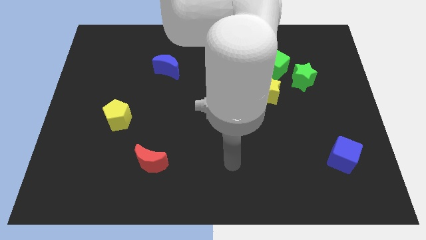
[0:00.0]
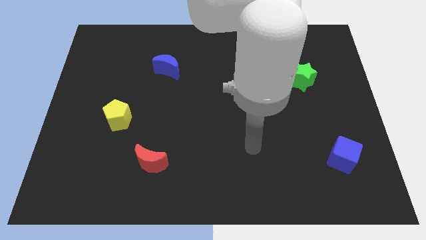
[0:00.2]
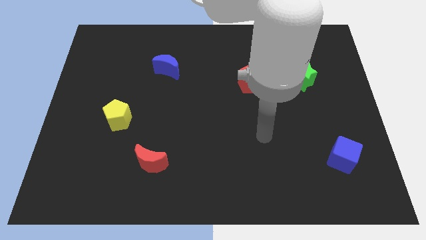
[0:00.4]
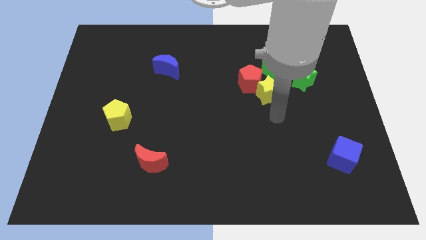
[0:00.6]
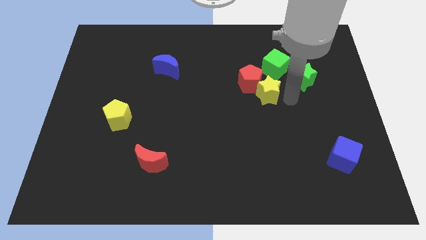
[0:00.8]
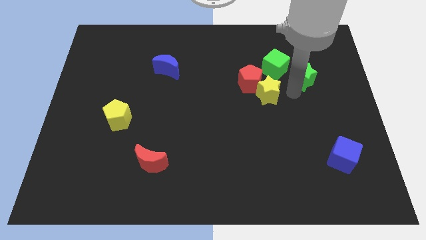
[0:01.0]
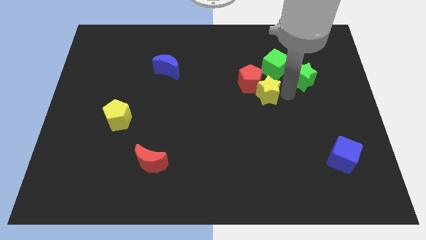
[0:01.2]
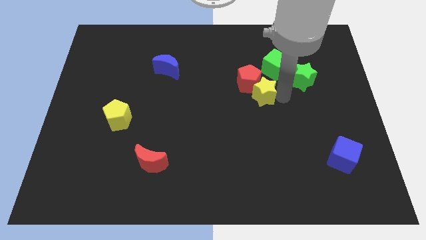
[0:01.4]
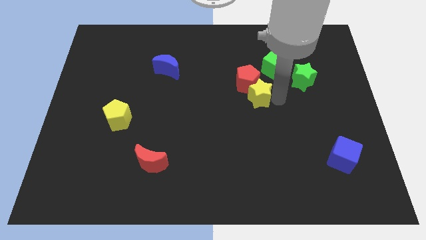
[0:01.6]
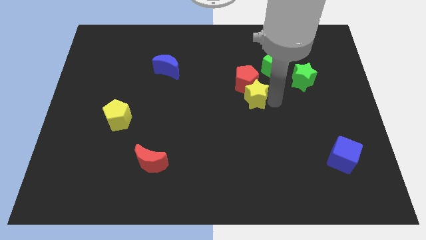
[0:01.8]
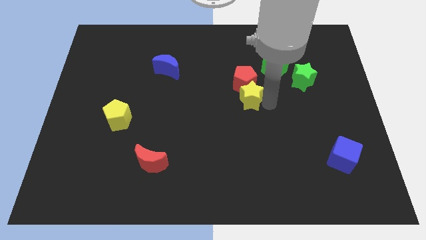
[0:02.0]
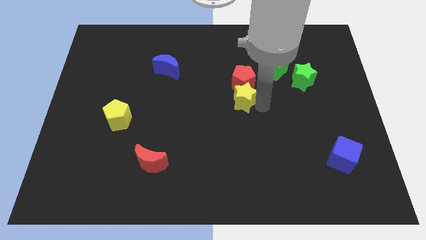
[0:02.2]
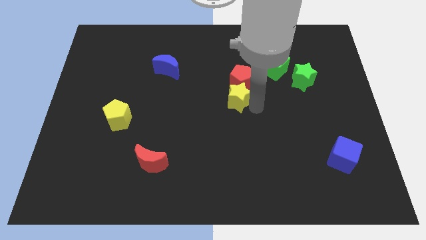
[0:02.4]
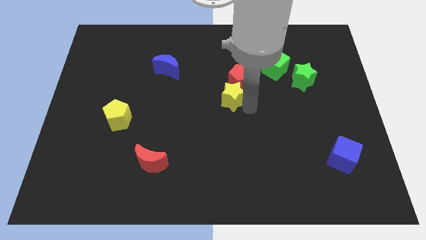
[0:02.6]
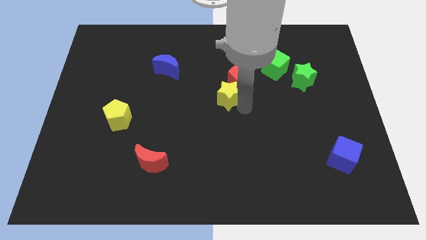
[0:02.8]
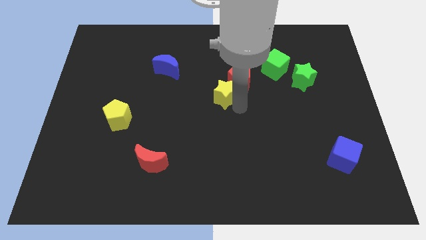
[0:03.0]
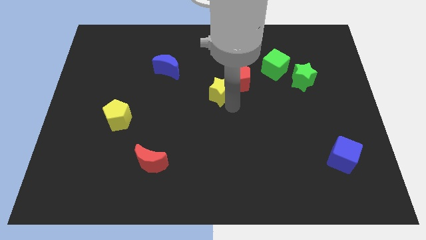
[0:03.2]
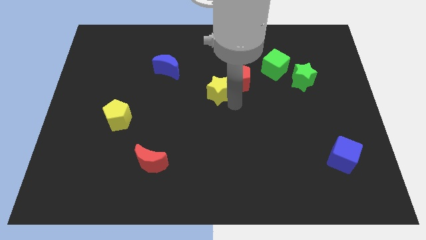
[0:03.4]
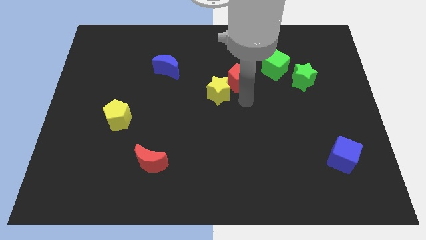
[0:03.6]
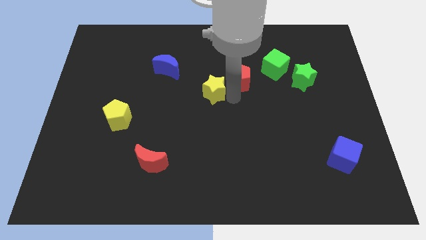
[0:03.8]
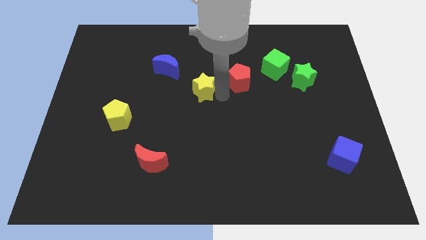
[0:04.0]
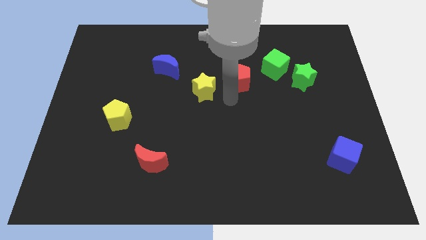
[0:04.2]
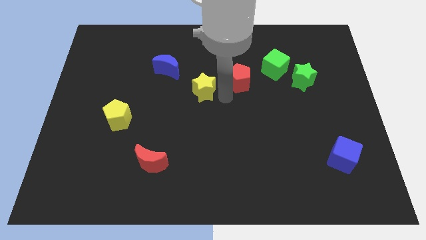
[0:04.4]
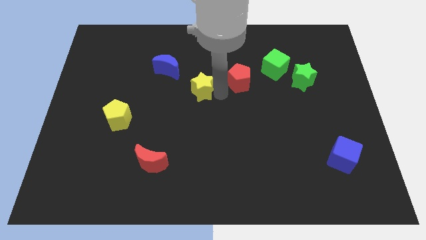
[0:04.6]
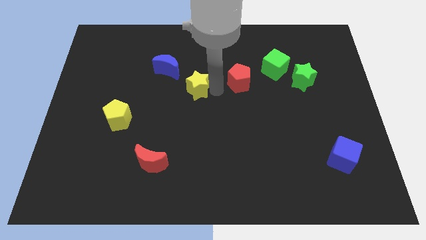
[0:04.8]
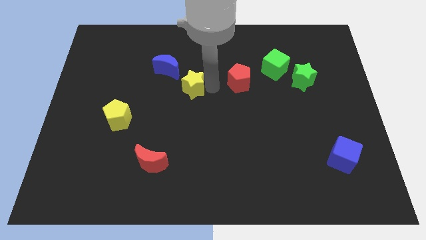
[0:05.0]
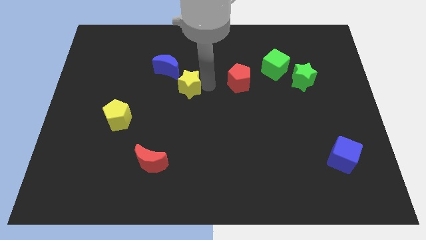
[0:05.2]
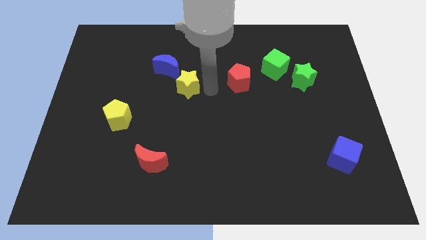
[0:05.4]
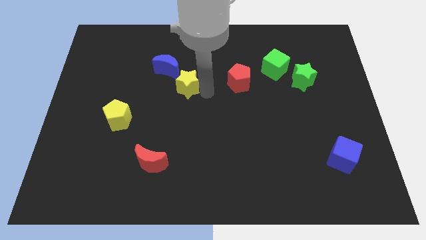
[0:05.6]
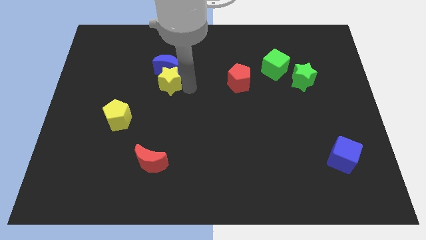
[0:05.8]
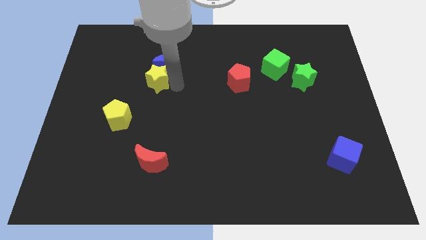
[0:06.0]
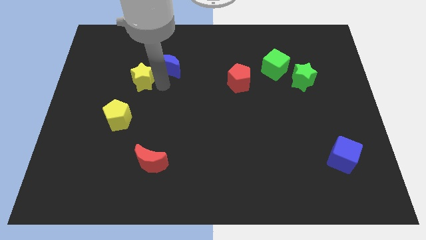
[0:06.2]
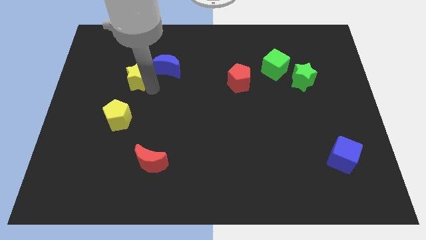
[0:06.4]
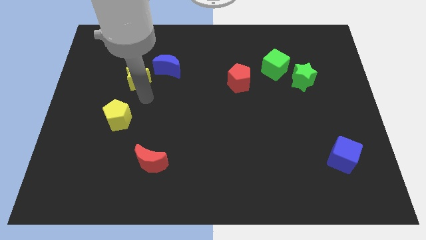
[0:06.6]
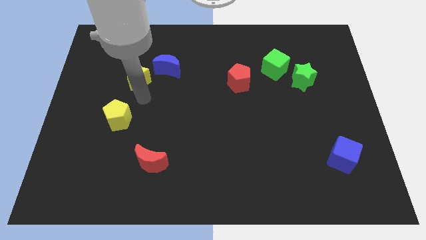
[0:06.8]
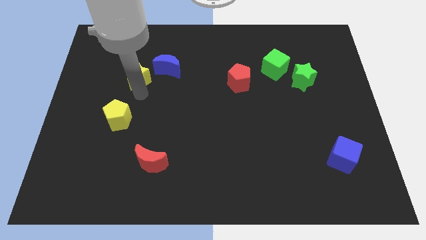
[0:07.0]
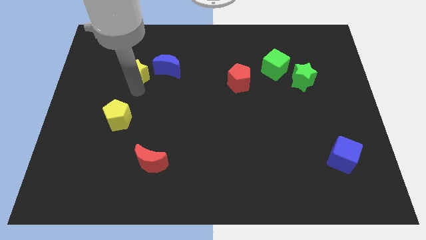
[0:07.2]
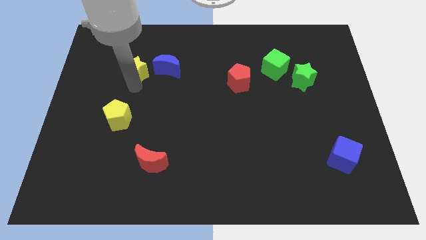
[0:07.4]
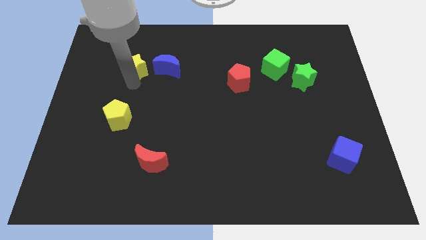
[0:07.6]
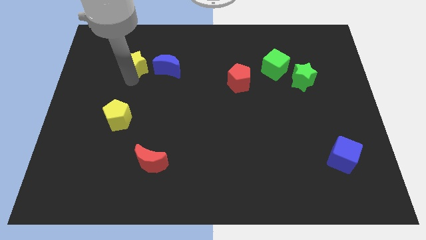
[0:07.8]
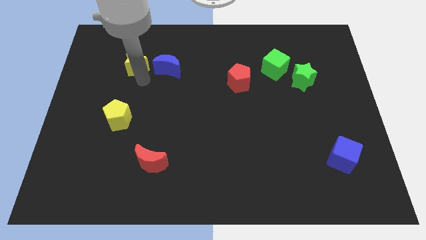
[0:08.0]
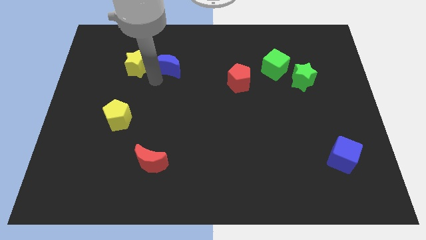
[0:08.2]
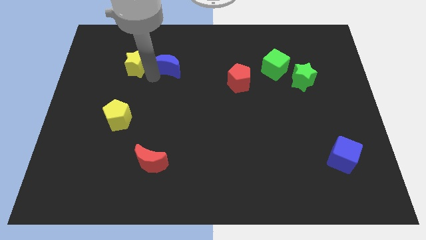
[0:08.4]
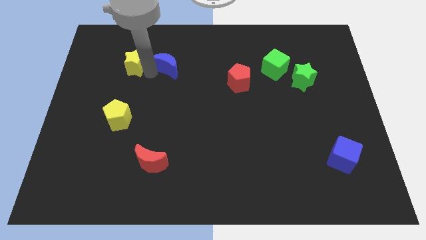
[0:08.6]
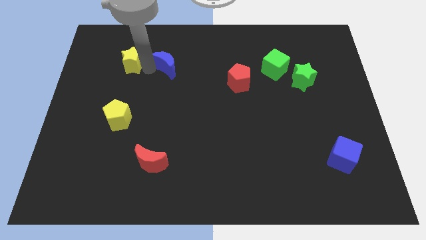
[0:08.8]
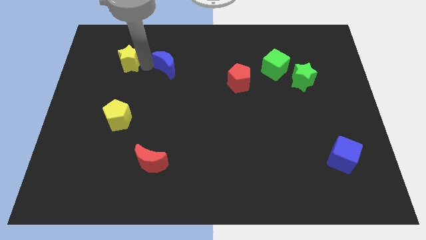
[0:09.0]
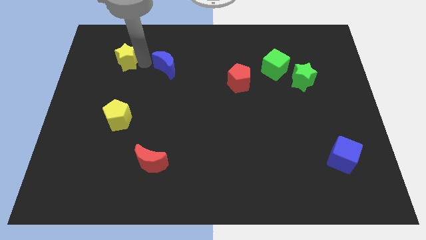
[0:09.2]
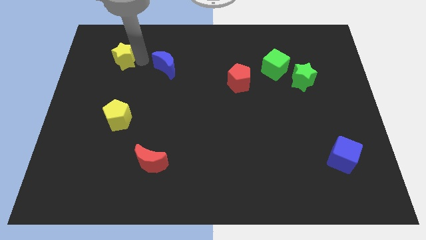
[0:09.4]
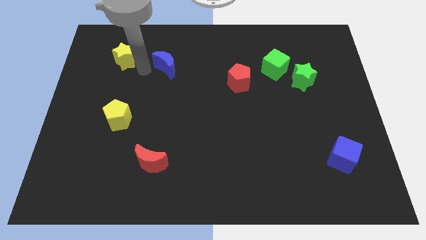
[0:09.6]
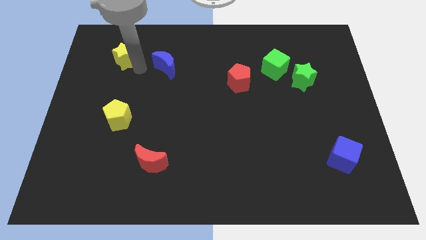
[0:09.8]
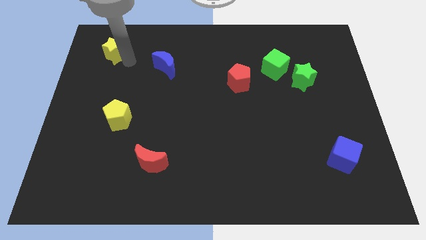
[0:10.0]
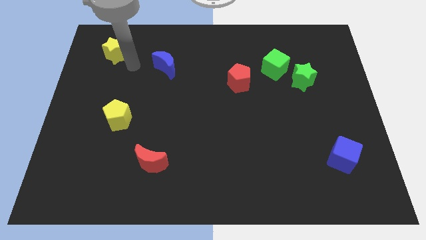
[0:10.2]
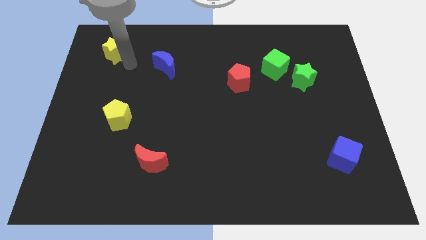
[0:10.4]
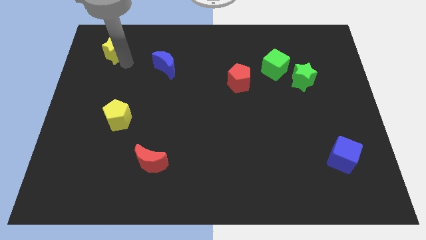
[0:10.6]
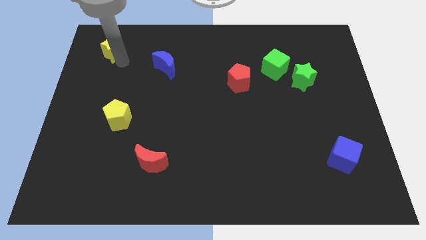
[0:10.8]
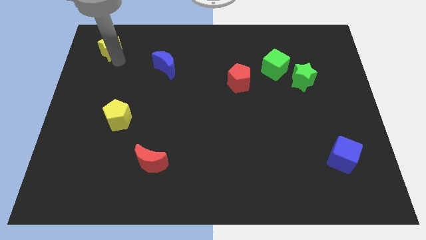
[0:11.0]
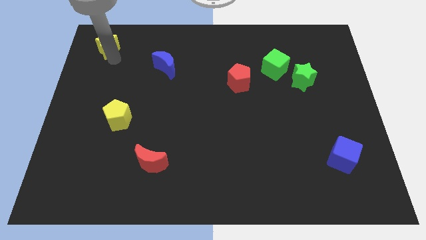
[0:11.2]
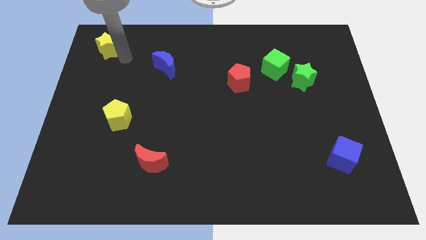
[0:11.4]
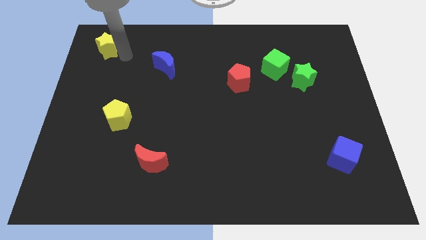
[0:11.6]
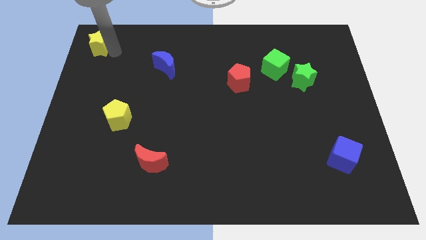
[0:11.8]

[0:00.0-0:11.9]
move the yellow star to the top left of the board
